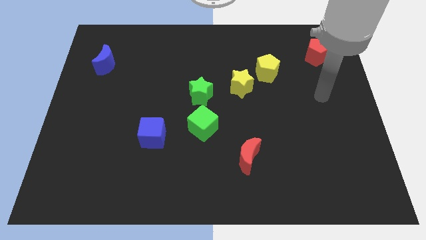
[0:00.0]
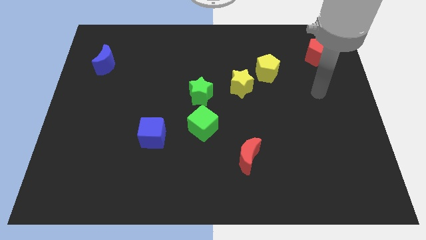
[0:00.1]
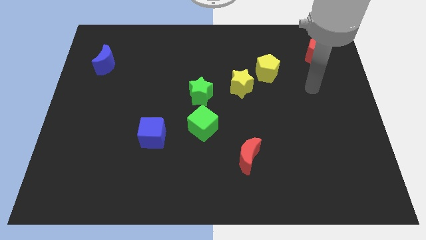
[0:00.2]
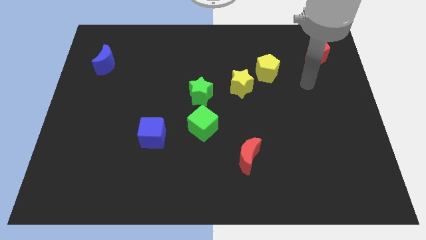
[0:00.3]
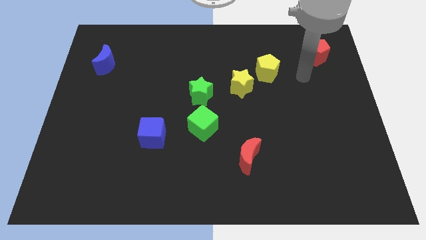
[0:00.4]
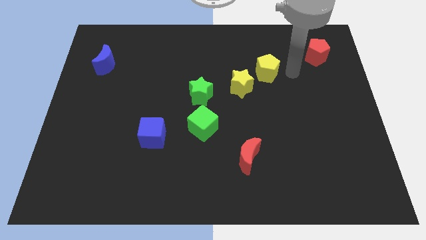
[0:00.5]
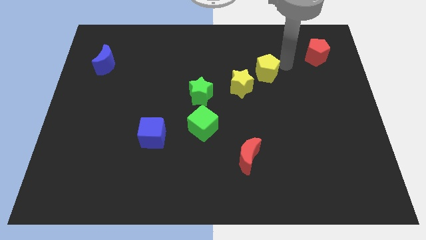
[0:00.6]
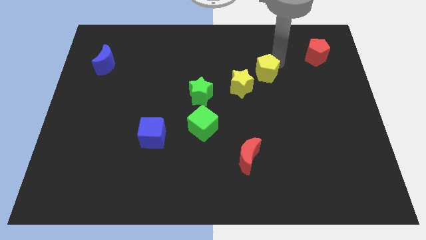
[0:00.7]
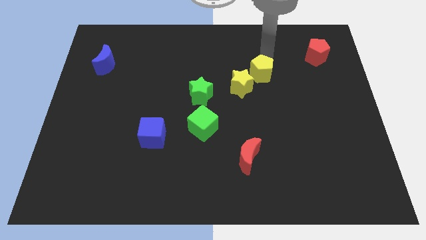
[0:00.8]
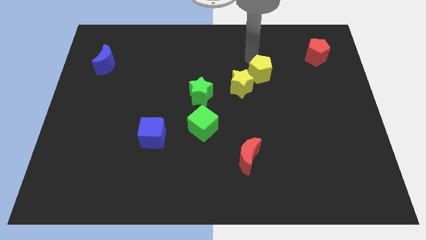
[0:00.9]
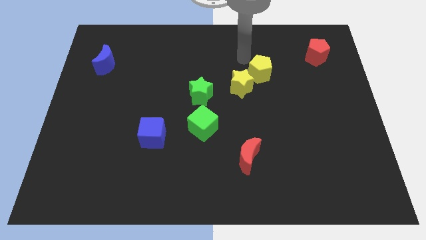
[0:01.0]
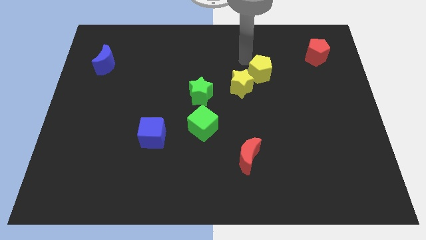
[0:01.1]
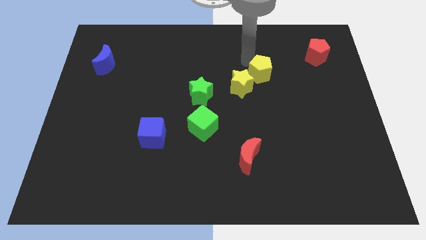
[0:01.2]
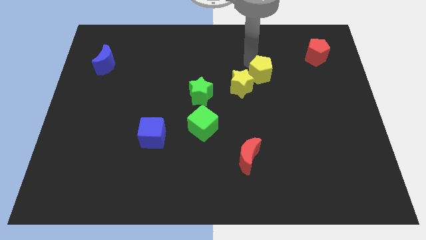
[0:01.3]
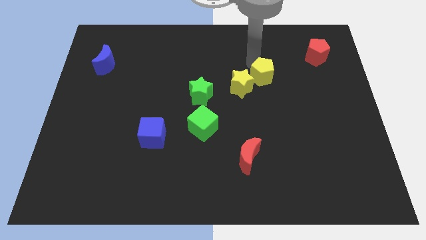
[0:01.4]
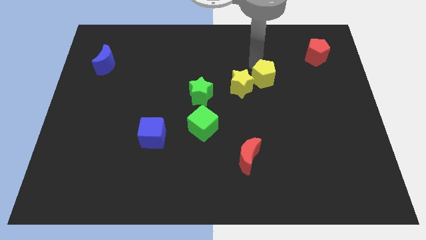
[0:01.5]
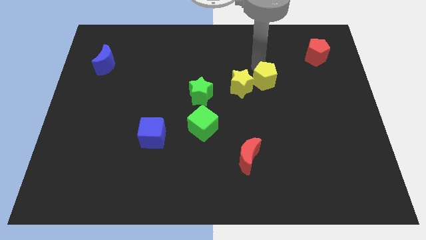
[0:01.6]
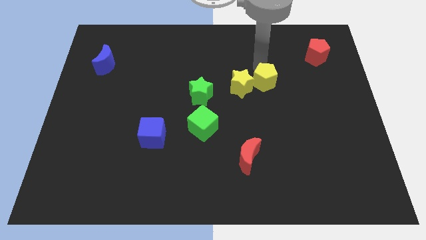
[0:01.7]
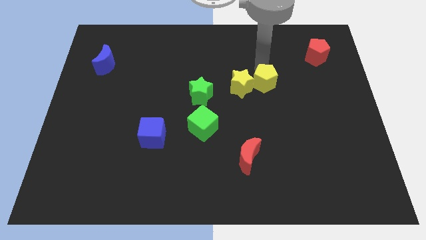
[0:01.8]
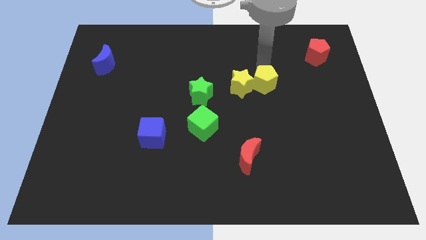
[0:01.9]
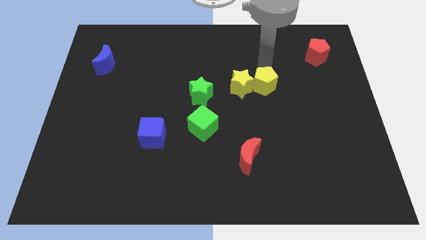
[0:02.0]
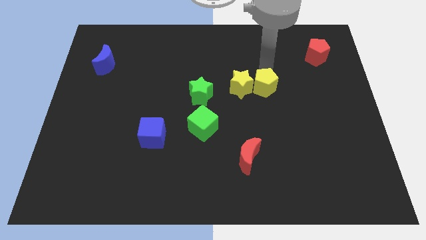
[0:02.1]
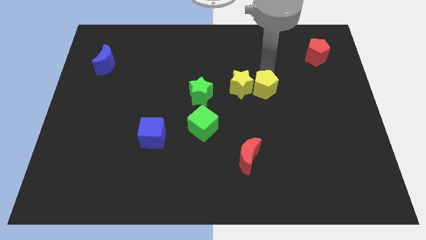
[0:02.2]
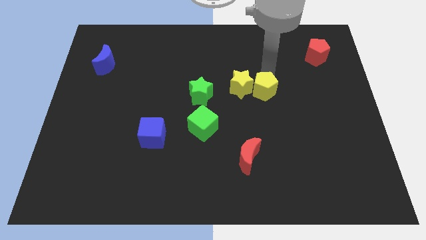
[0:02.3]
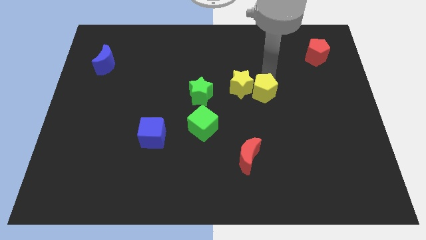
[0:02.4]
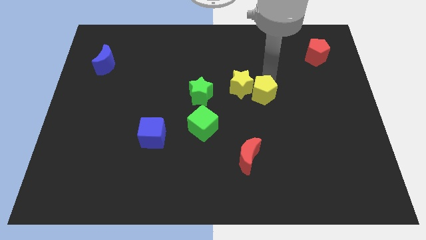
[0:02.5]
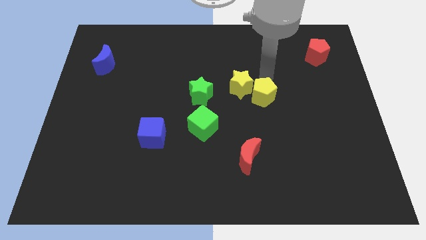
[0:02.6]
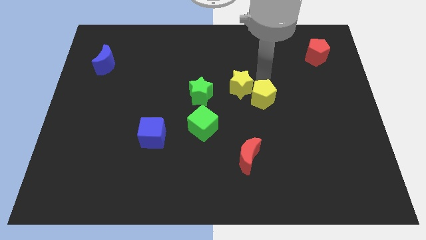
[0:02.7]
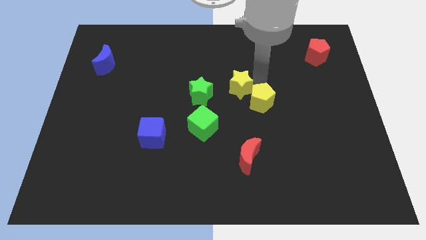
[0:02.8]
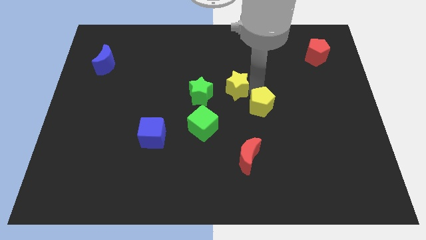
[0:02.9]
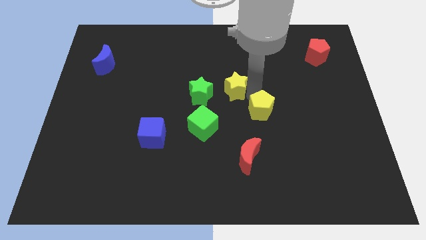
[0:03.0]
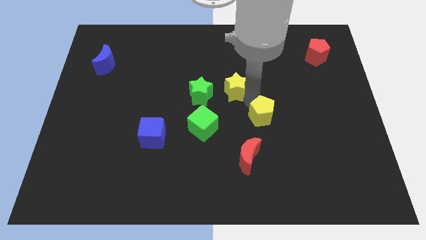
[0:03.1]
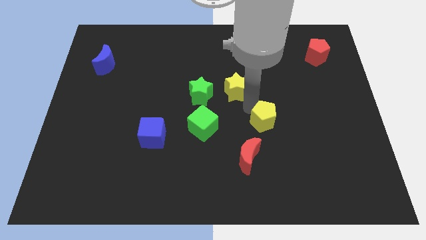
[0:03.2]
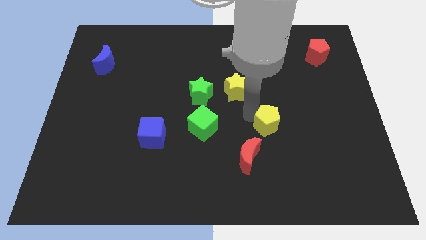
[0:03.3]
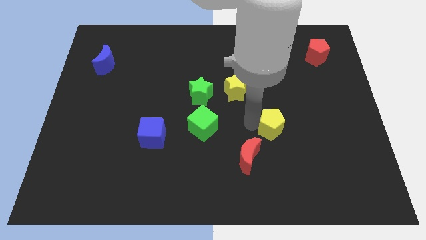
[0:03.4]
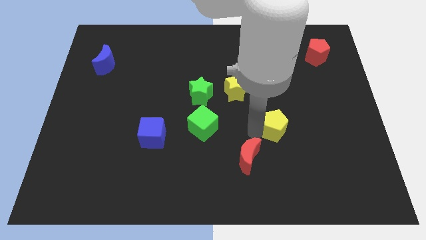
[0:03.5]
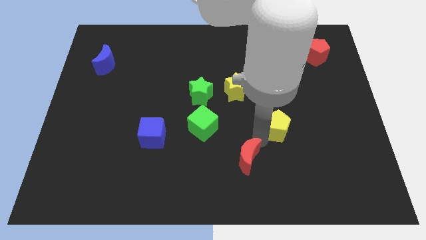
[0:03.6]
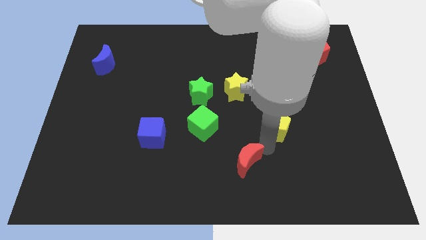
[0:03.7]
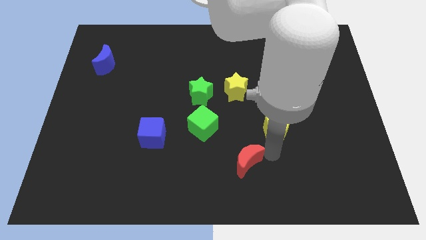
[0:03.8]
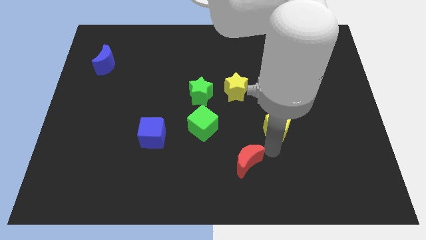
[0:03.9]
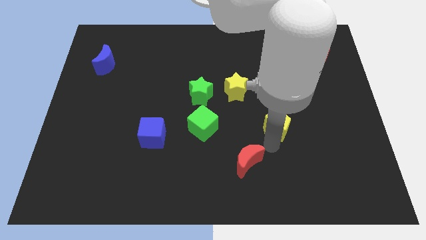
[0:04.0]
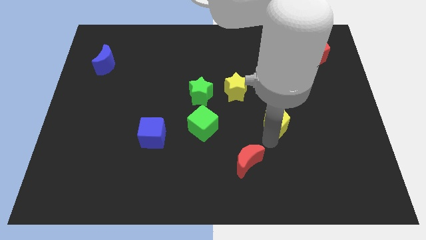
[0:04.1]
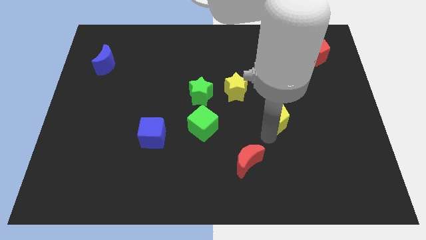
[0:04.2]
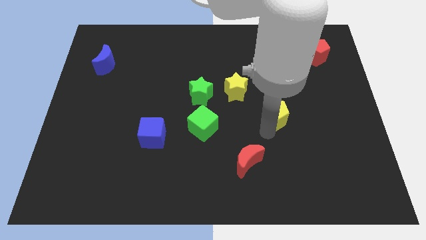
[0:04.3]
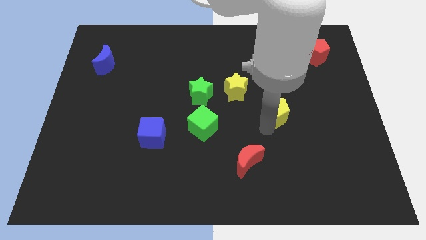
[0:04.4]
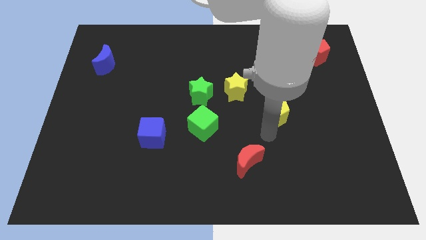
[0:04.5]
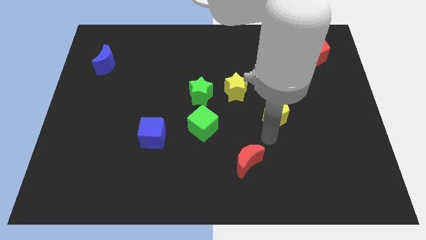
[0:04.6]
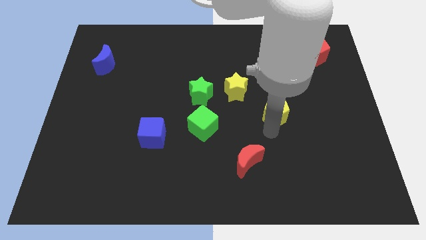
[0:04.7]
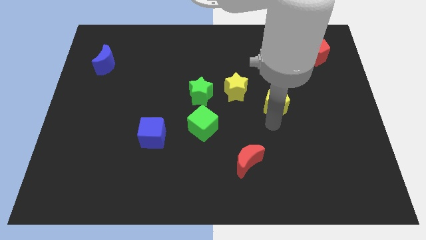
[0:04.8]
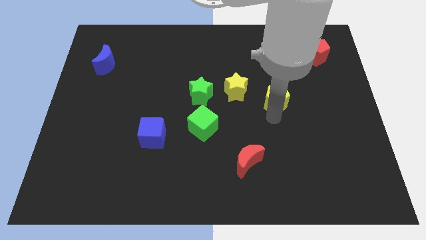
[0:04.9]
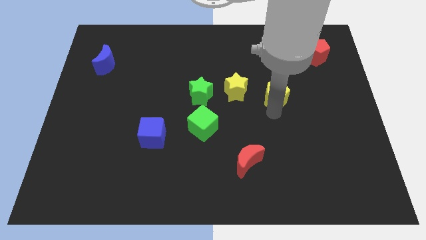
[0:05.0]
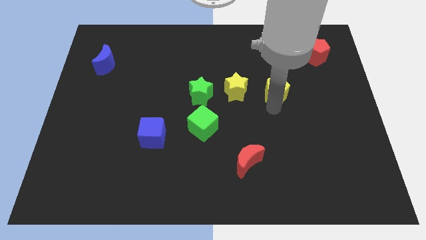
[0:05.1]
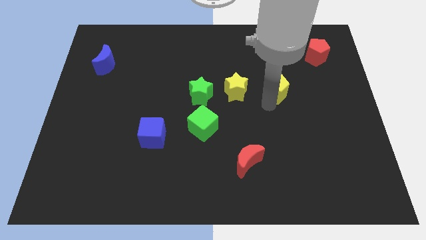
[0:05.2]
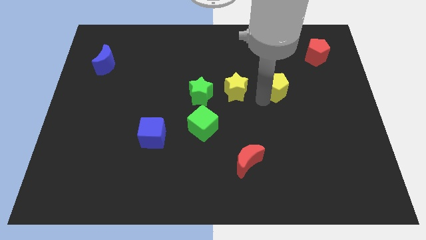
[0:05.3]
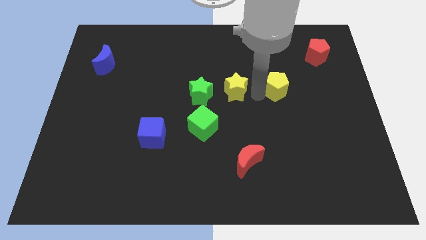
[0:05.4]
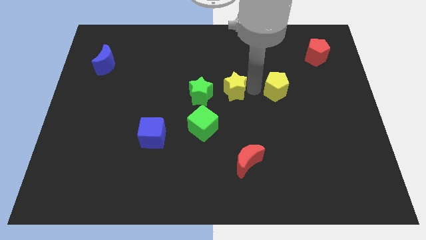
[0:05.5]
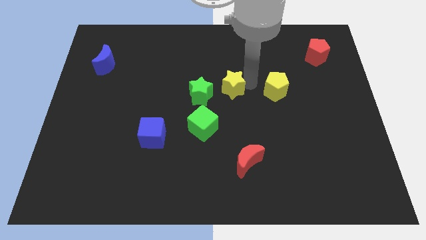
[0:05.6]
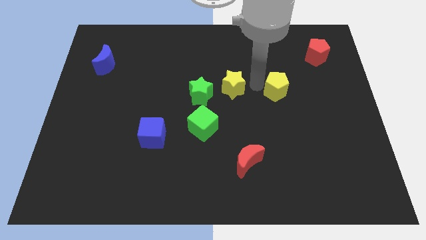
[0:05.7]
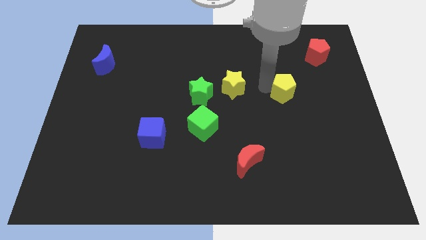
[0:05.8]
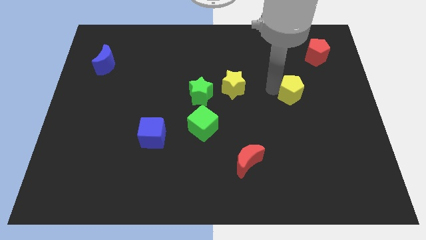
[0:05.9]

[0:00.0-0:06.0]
slightly push the yellow pentagon downwards and right diagonally

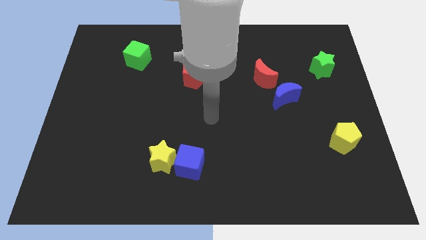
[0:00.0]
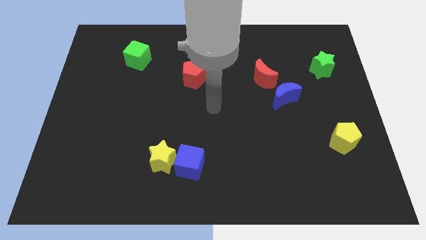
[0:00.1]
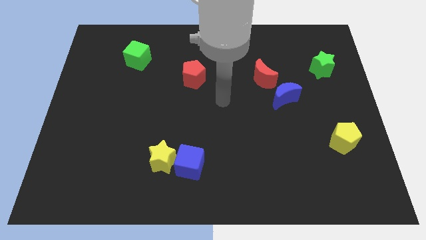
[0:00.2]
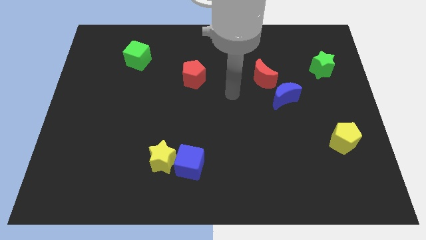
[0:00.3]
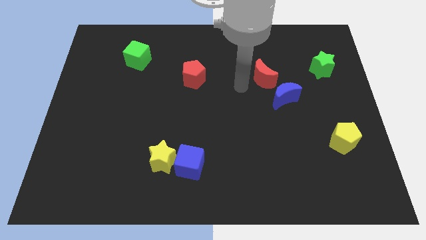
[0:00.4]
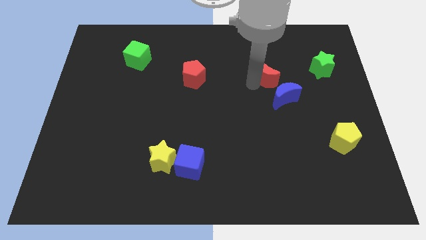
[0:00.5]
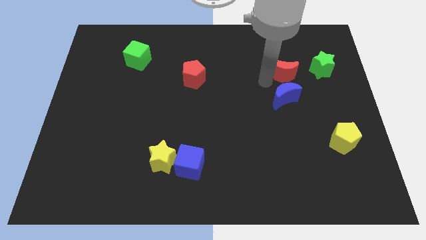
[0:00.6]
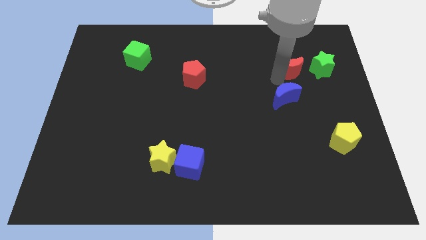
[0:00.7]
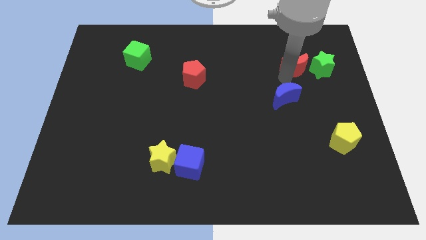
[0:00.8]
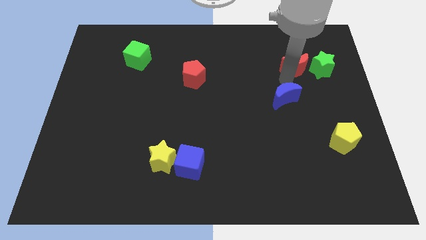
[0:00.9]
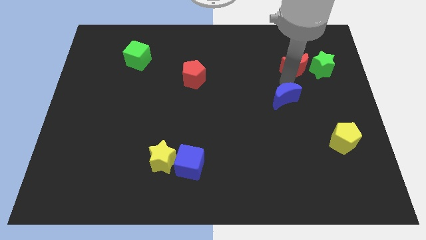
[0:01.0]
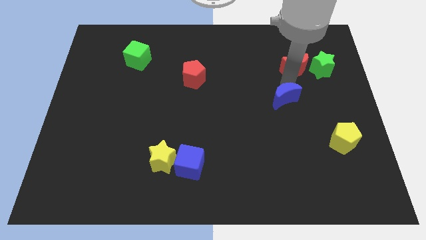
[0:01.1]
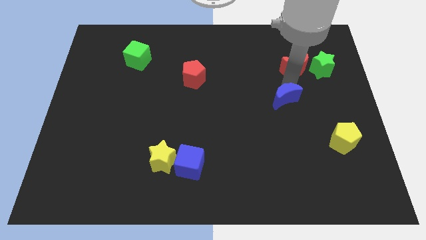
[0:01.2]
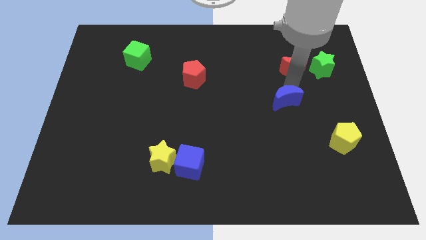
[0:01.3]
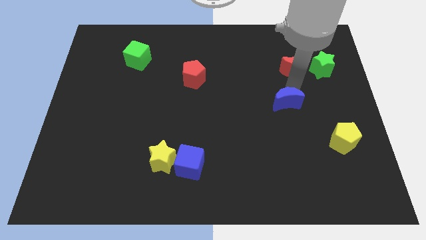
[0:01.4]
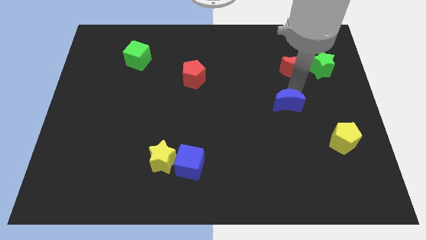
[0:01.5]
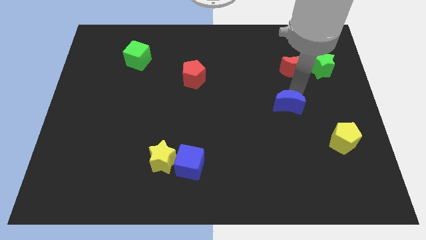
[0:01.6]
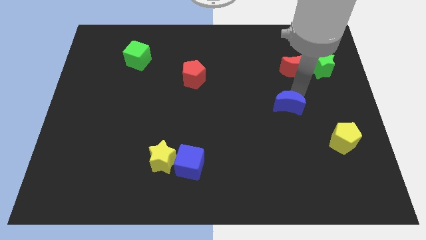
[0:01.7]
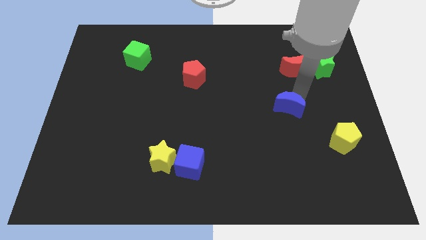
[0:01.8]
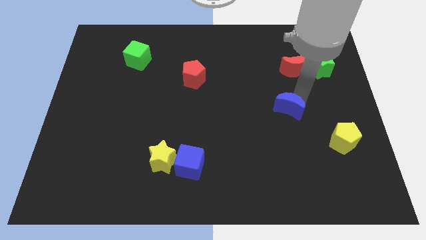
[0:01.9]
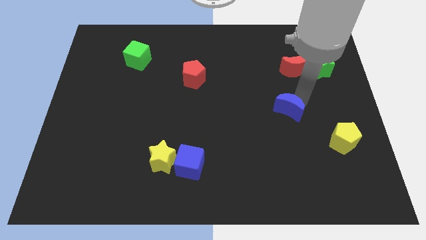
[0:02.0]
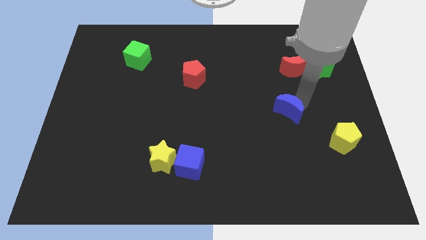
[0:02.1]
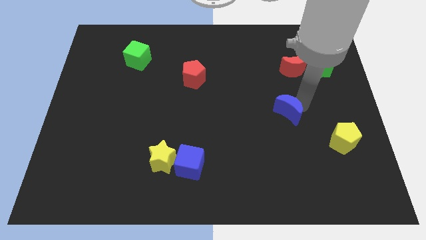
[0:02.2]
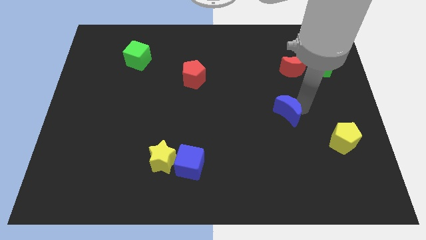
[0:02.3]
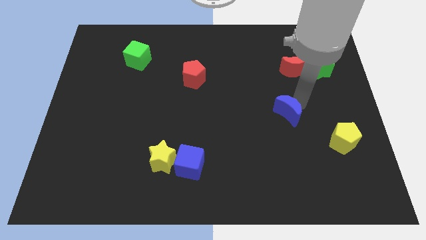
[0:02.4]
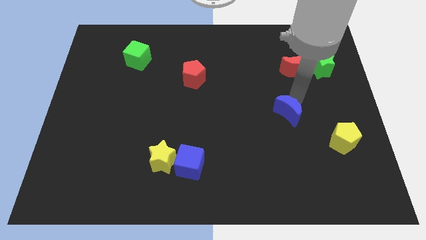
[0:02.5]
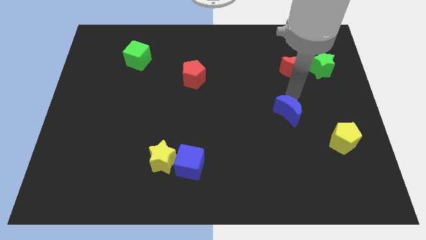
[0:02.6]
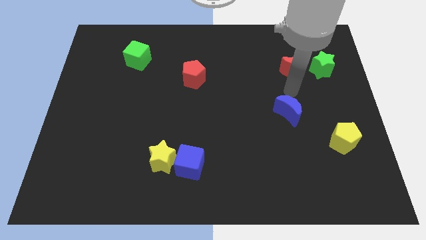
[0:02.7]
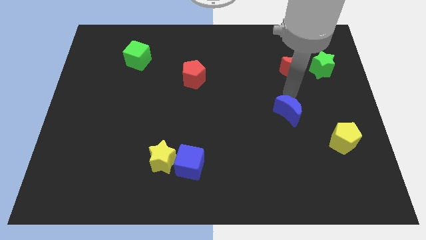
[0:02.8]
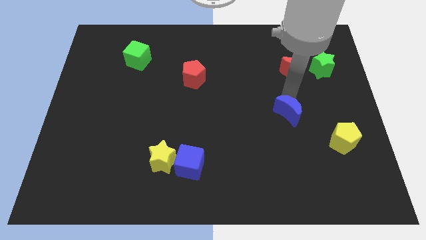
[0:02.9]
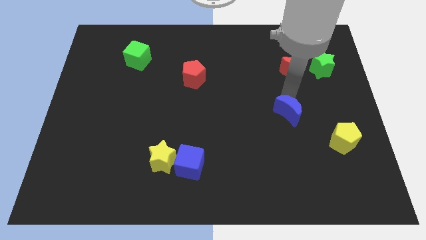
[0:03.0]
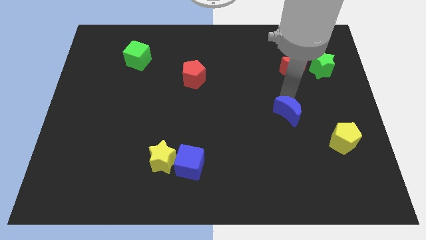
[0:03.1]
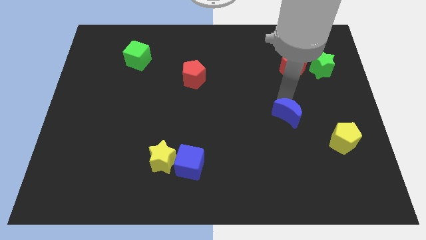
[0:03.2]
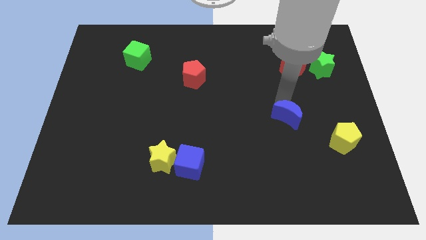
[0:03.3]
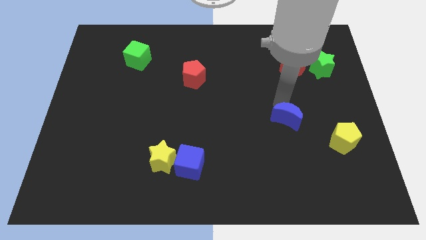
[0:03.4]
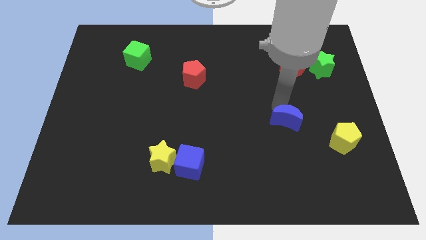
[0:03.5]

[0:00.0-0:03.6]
slightly move the blue moon downwards
